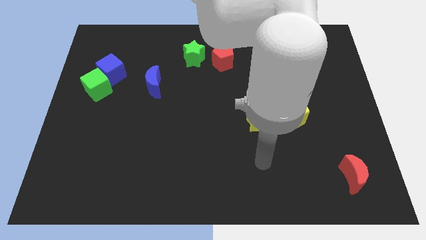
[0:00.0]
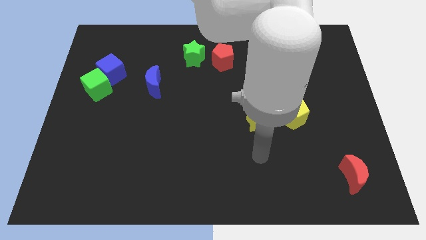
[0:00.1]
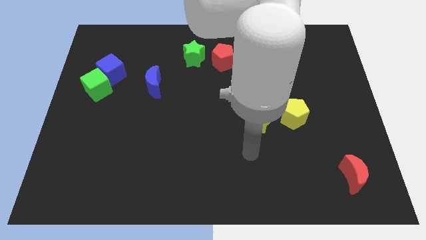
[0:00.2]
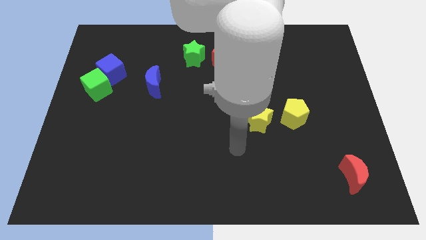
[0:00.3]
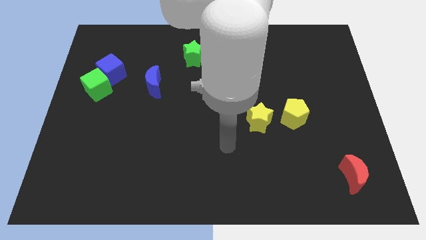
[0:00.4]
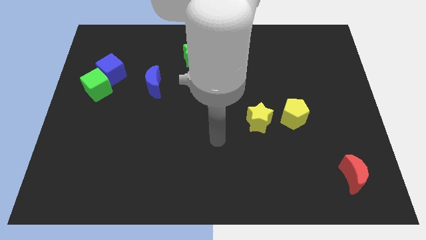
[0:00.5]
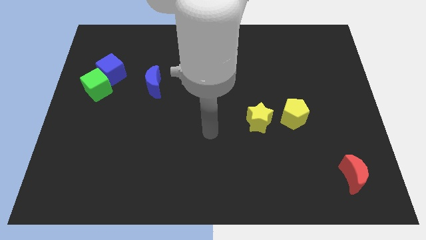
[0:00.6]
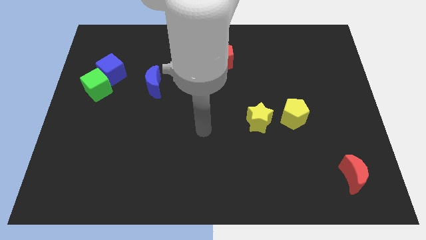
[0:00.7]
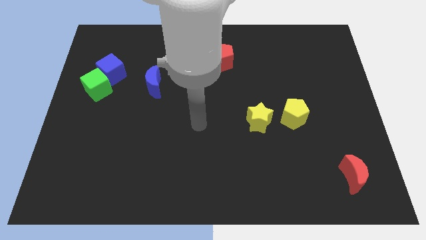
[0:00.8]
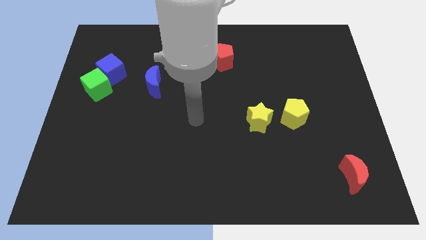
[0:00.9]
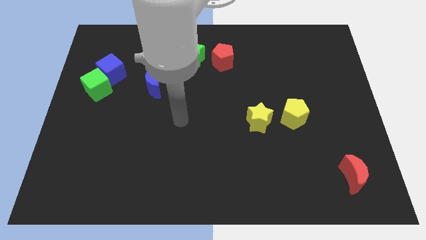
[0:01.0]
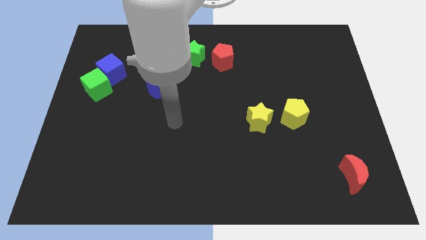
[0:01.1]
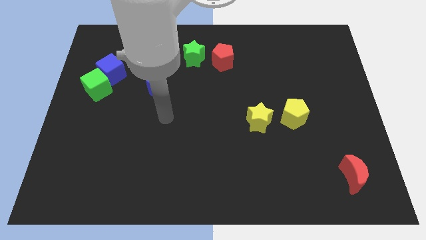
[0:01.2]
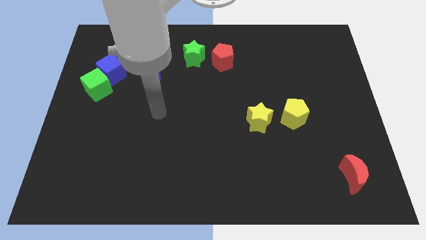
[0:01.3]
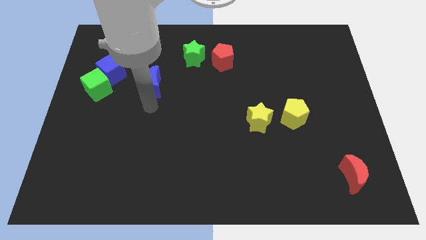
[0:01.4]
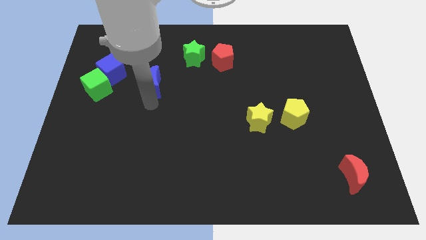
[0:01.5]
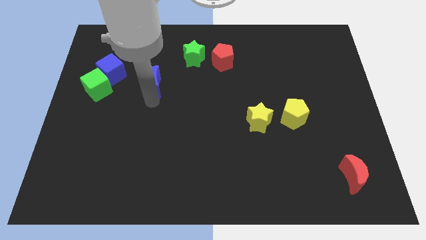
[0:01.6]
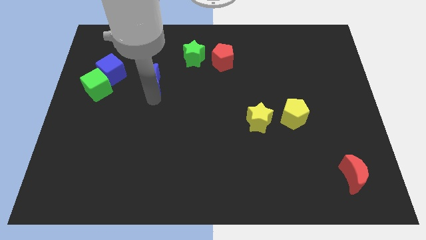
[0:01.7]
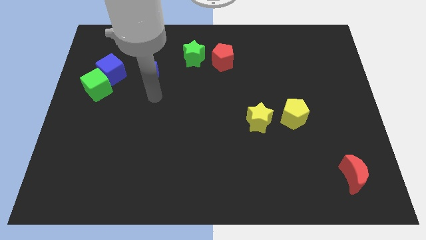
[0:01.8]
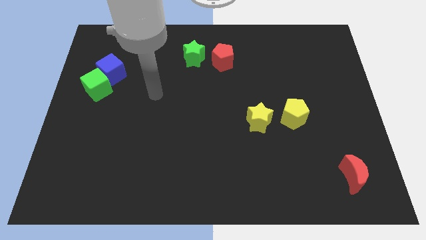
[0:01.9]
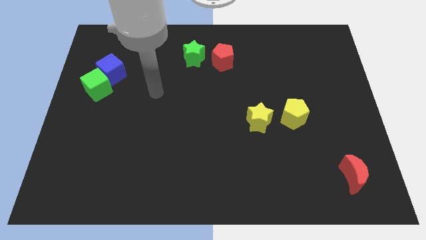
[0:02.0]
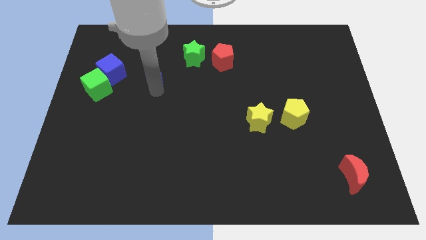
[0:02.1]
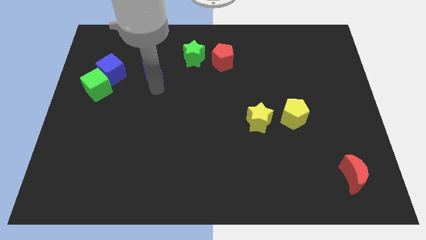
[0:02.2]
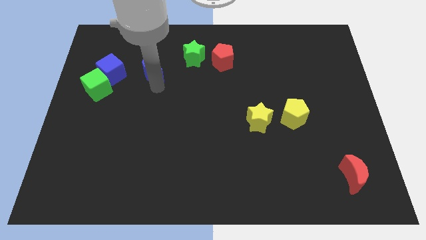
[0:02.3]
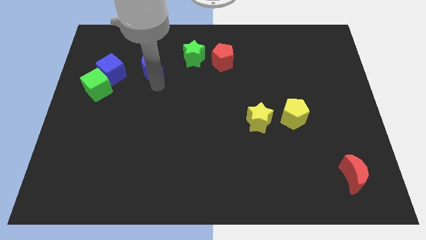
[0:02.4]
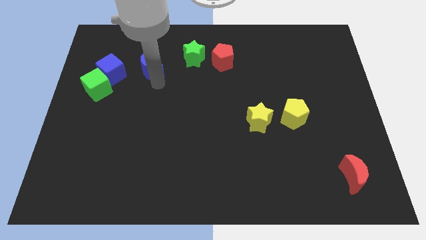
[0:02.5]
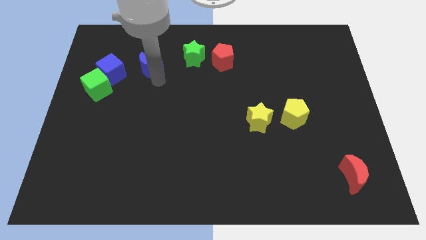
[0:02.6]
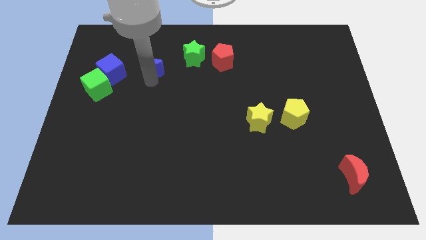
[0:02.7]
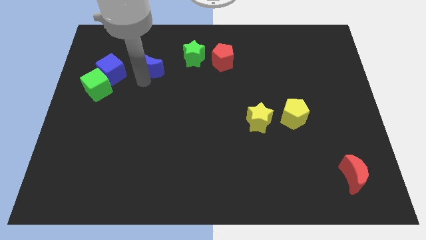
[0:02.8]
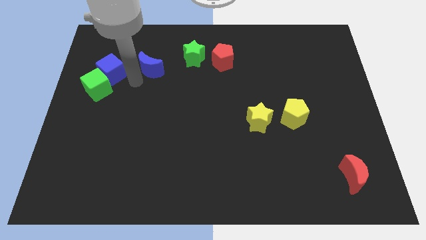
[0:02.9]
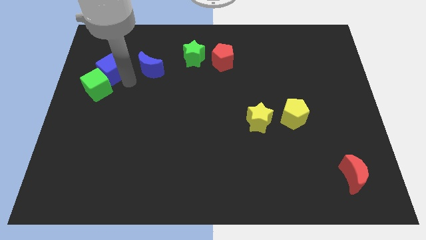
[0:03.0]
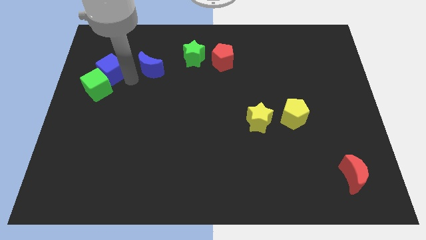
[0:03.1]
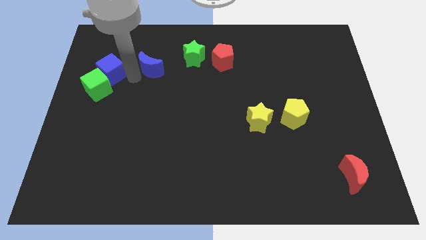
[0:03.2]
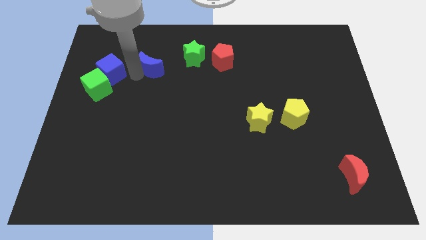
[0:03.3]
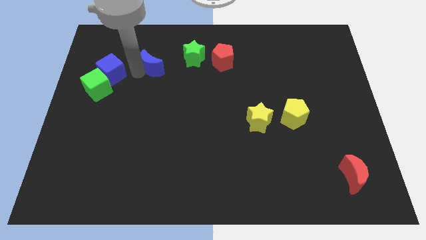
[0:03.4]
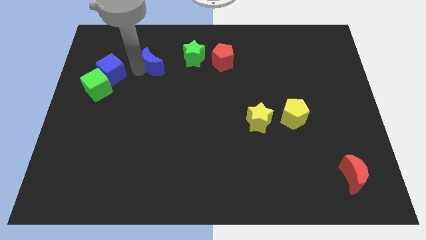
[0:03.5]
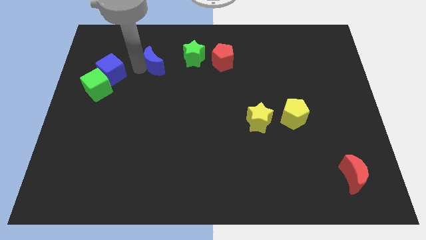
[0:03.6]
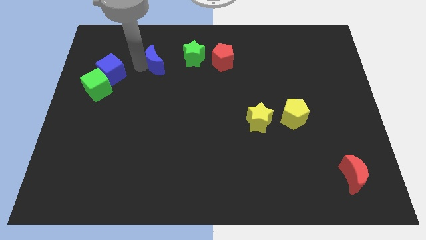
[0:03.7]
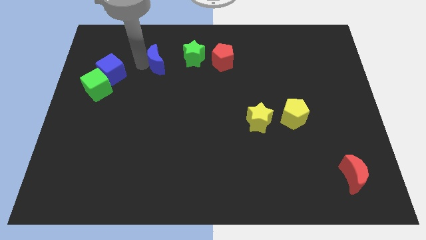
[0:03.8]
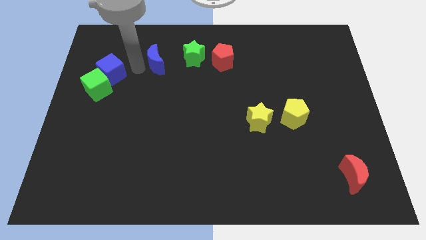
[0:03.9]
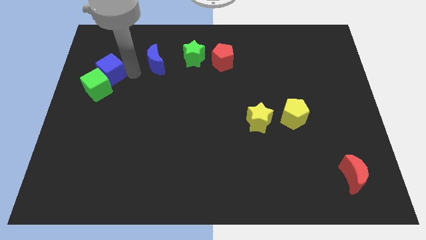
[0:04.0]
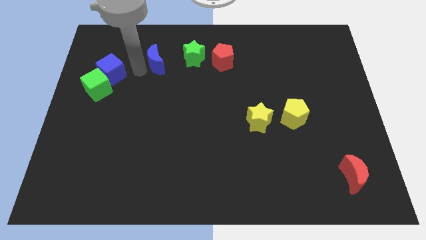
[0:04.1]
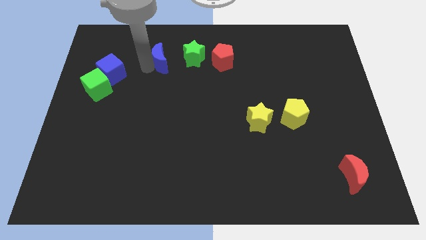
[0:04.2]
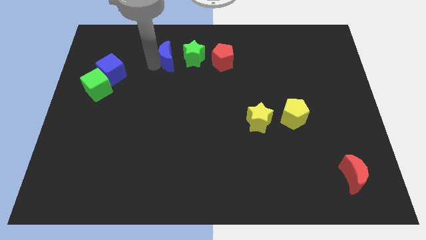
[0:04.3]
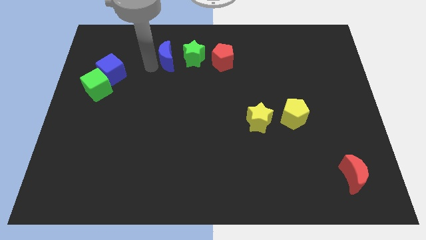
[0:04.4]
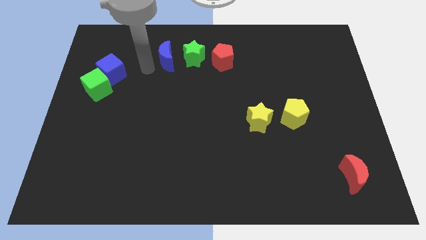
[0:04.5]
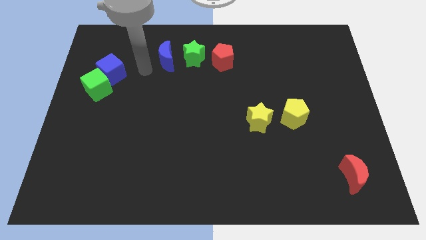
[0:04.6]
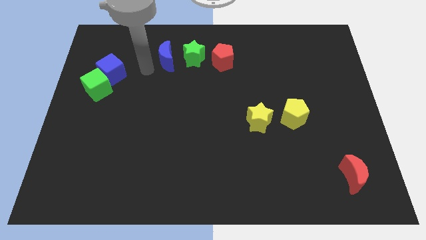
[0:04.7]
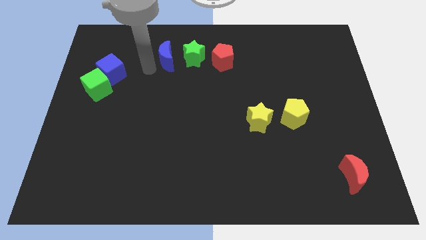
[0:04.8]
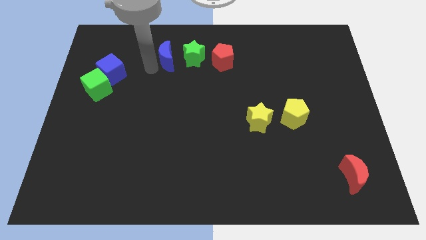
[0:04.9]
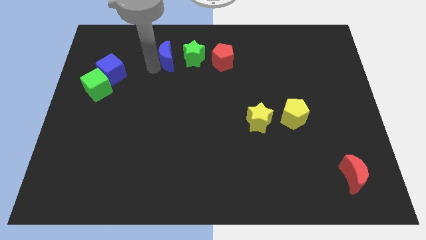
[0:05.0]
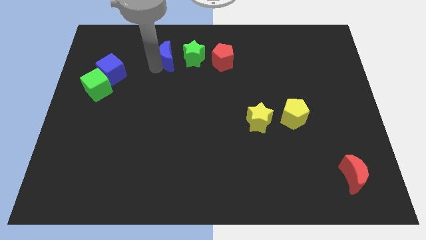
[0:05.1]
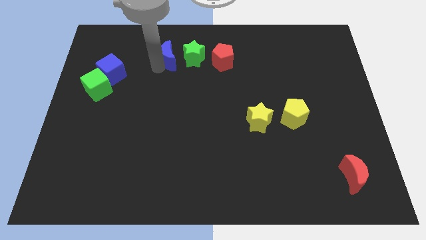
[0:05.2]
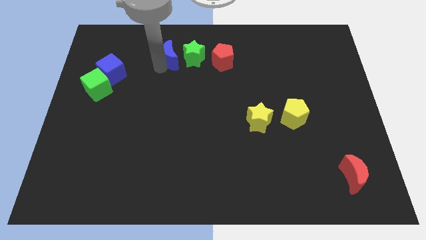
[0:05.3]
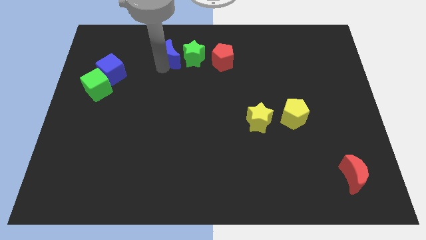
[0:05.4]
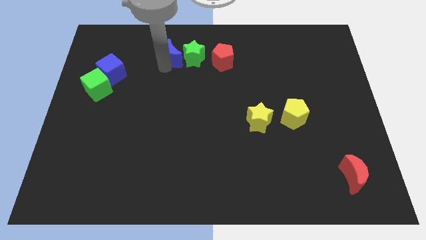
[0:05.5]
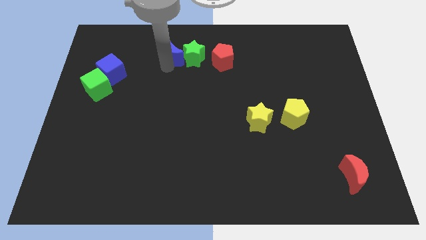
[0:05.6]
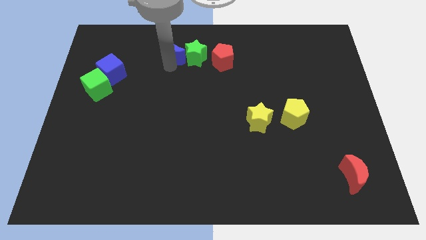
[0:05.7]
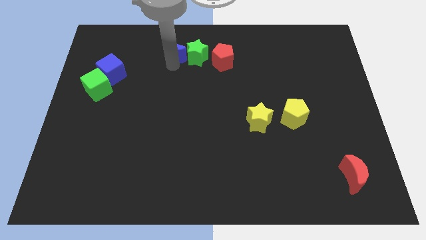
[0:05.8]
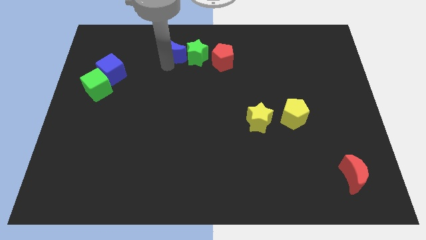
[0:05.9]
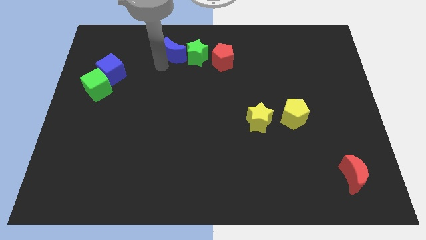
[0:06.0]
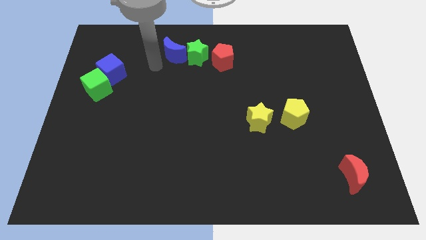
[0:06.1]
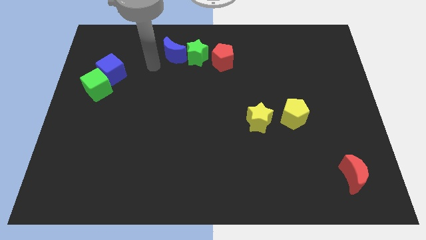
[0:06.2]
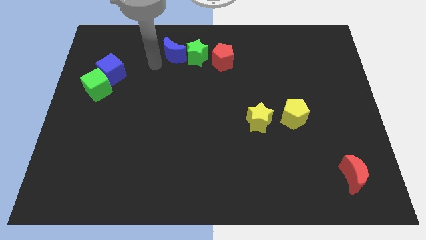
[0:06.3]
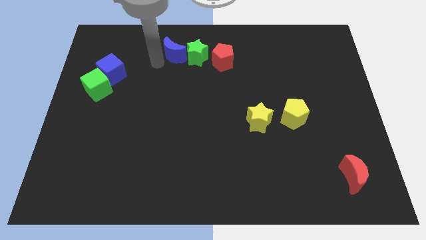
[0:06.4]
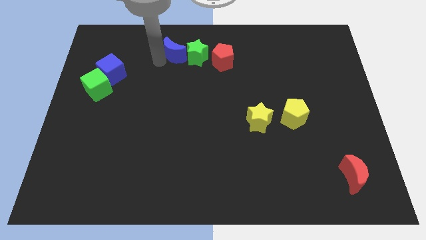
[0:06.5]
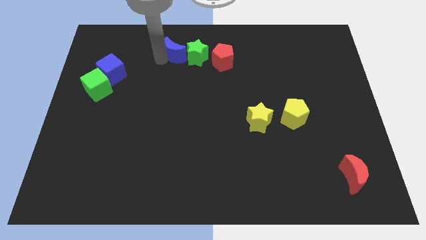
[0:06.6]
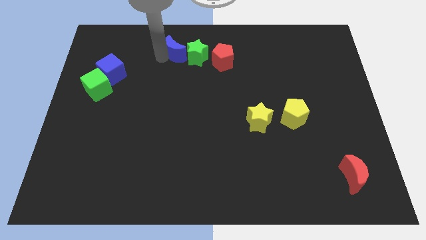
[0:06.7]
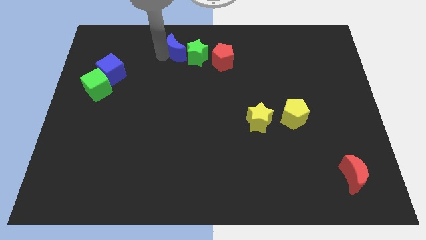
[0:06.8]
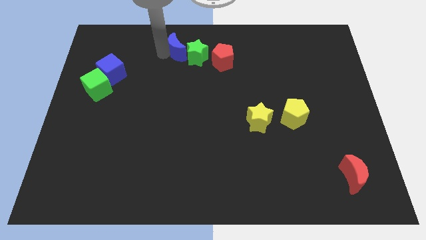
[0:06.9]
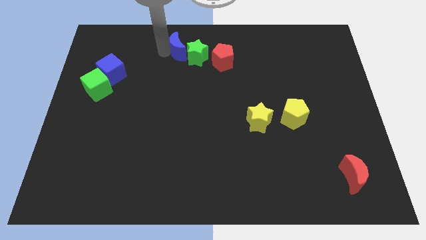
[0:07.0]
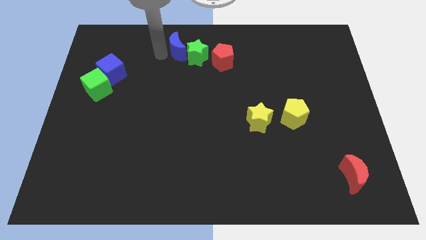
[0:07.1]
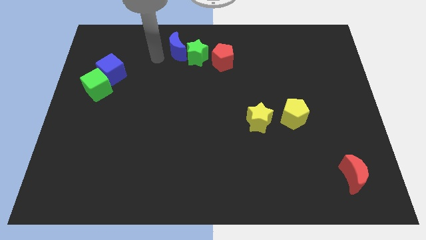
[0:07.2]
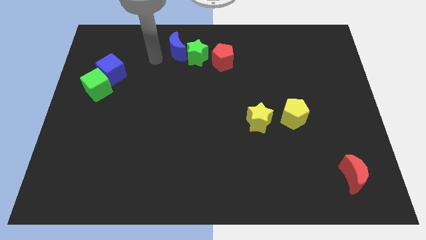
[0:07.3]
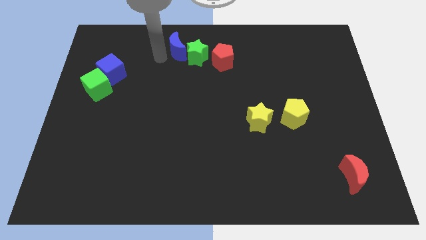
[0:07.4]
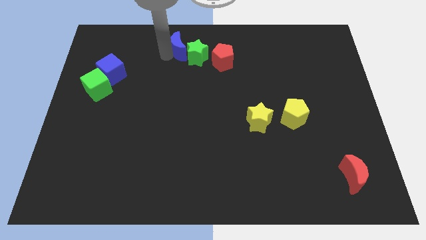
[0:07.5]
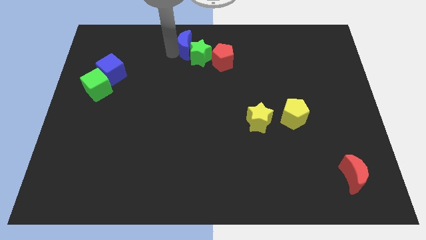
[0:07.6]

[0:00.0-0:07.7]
slide the blue moon to the towards your base
